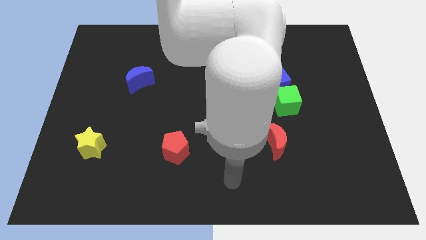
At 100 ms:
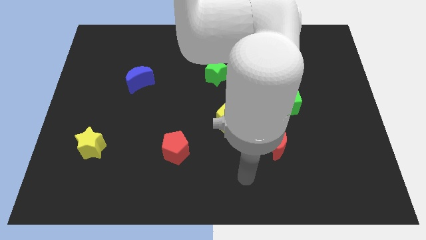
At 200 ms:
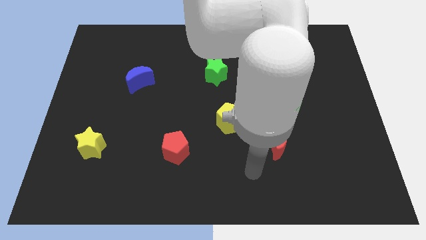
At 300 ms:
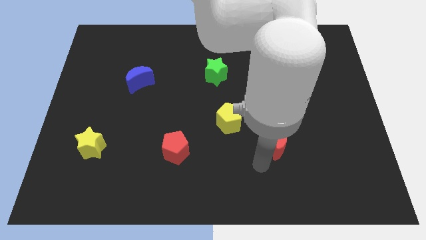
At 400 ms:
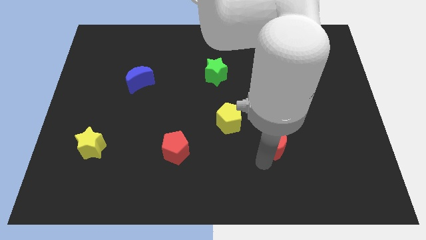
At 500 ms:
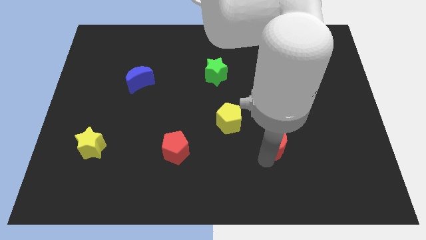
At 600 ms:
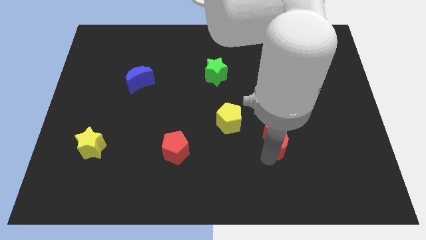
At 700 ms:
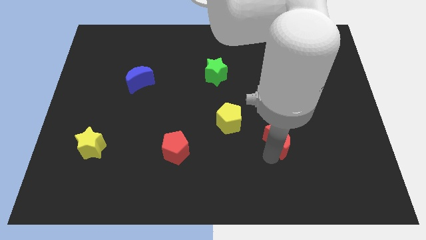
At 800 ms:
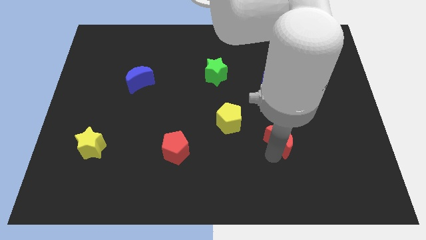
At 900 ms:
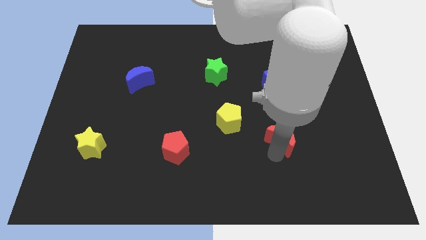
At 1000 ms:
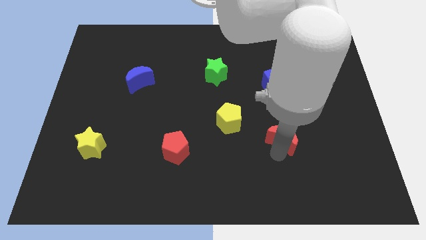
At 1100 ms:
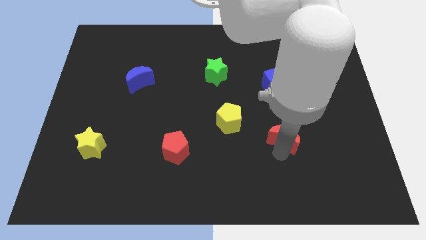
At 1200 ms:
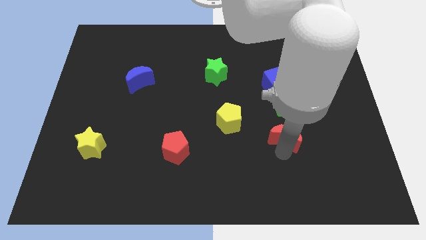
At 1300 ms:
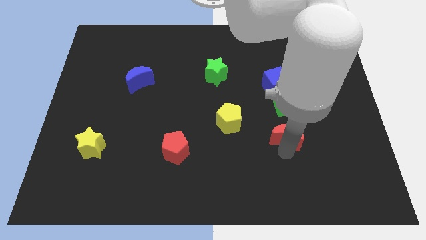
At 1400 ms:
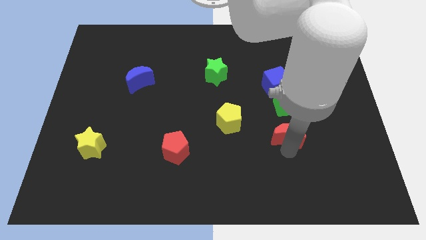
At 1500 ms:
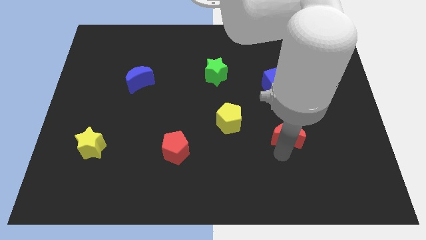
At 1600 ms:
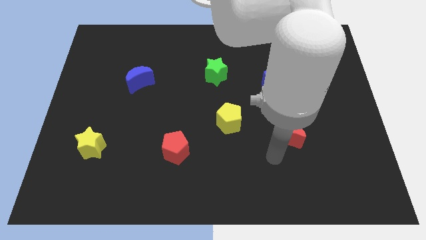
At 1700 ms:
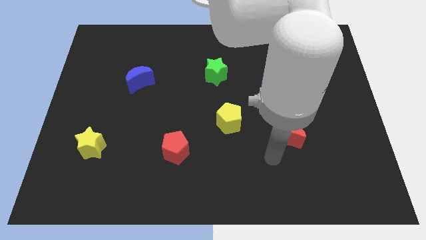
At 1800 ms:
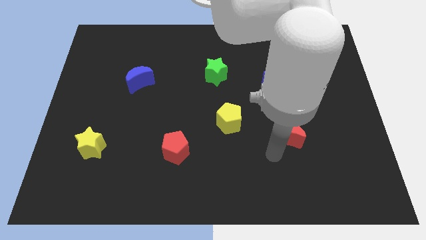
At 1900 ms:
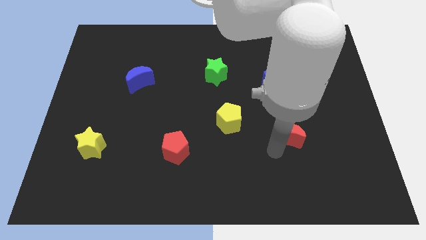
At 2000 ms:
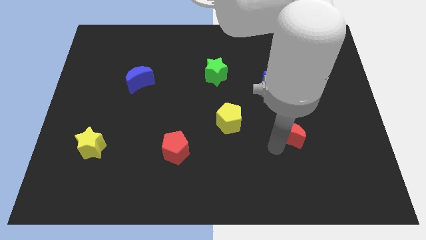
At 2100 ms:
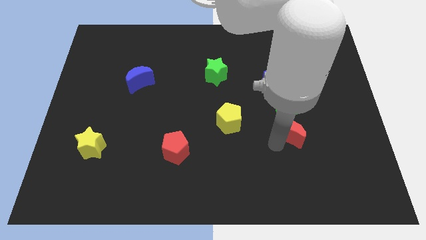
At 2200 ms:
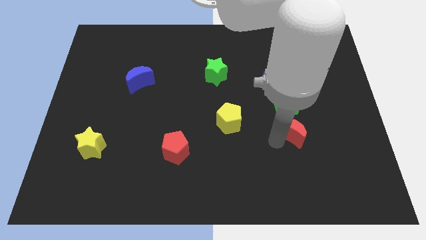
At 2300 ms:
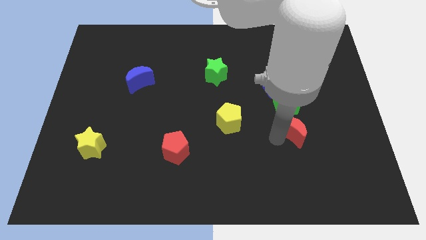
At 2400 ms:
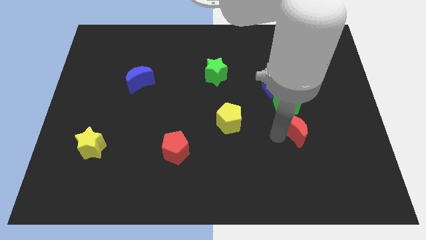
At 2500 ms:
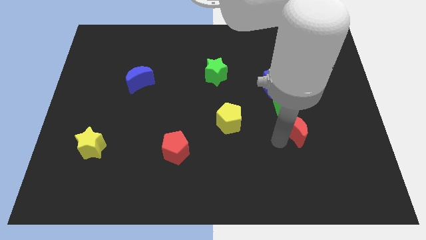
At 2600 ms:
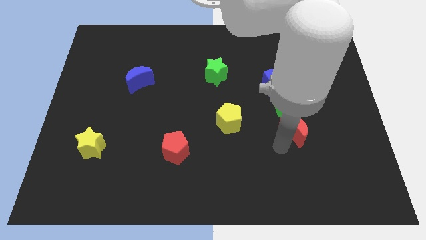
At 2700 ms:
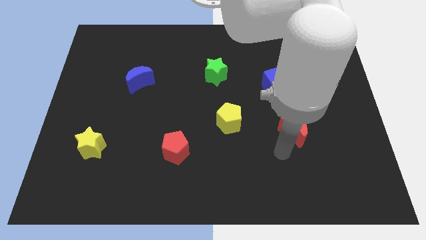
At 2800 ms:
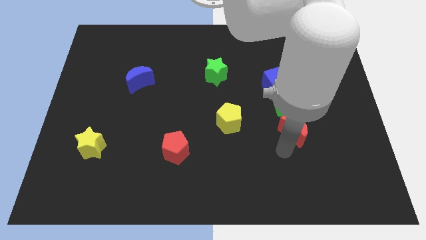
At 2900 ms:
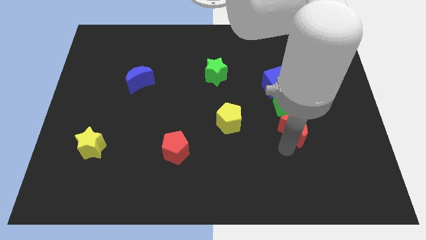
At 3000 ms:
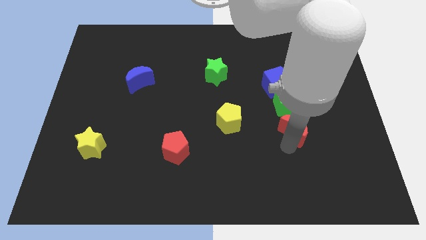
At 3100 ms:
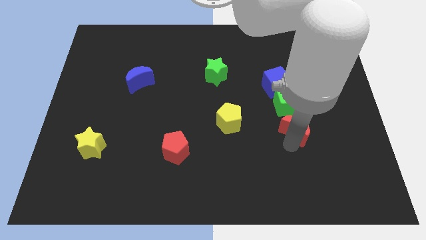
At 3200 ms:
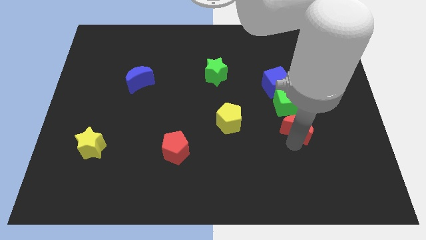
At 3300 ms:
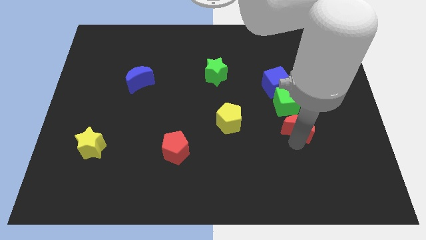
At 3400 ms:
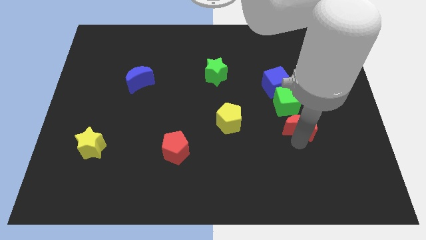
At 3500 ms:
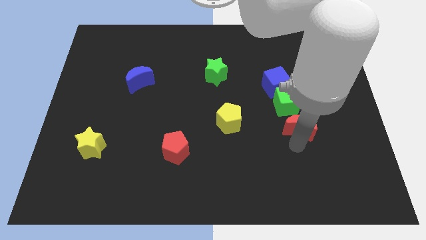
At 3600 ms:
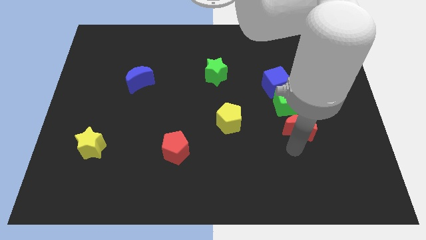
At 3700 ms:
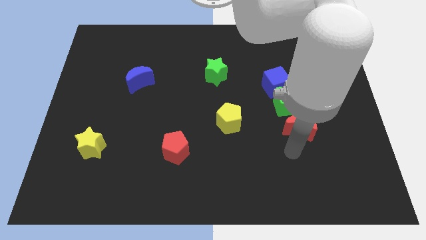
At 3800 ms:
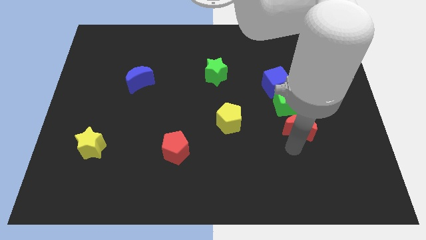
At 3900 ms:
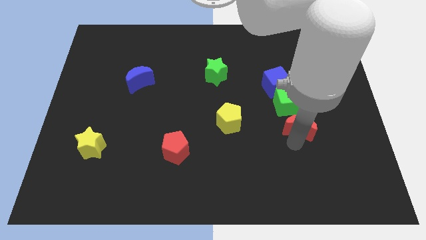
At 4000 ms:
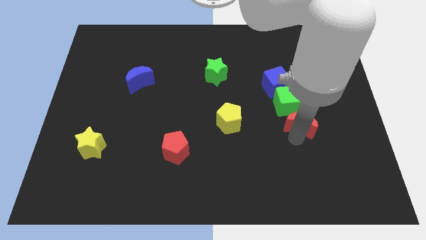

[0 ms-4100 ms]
move the red moon up and to the right diagonally a bit

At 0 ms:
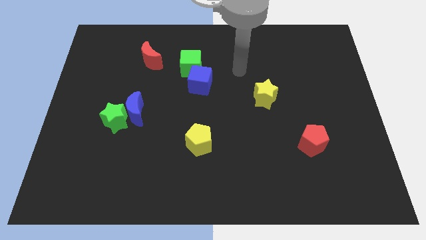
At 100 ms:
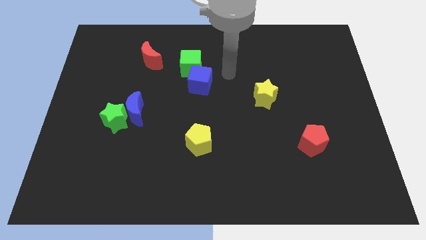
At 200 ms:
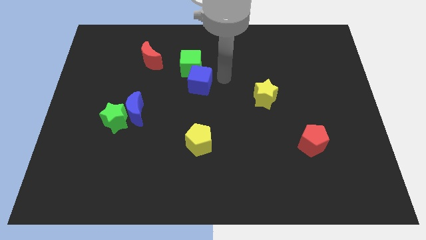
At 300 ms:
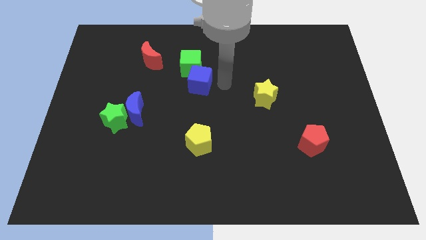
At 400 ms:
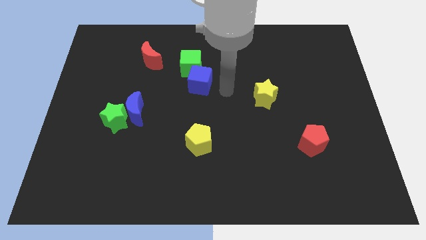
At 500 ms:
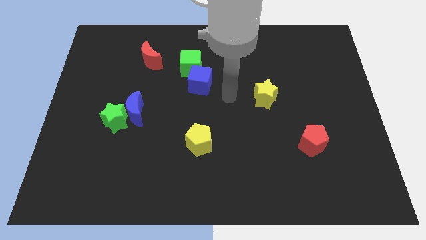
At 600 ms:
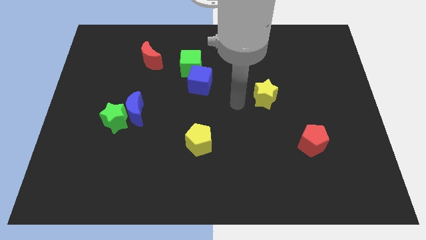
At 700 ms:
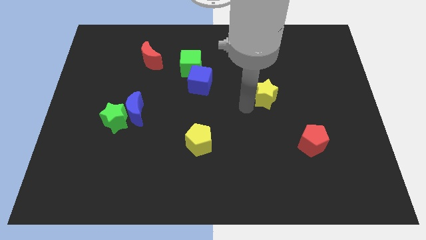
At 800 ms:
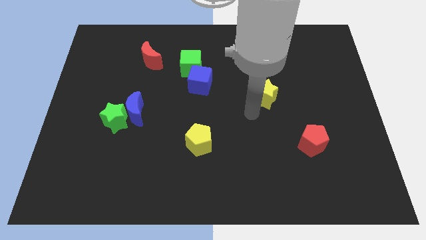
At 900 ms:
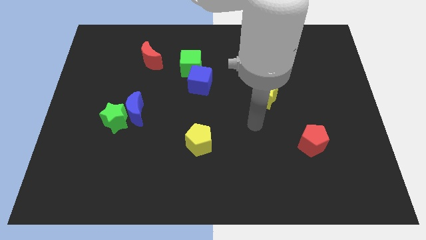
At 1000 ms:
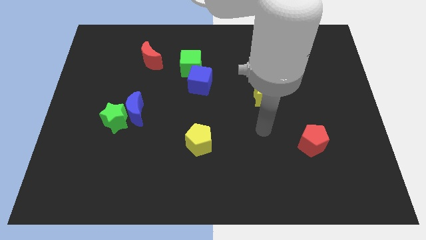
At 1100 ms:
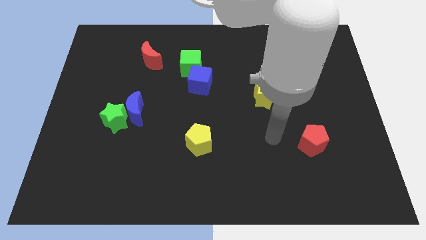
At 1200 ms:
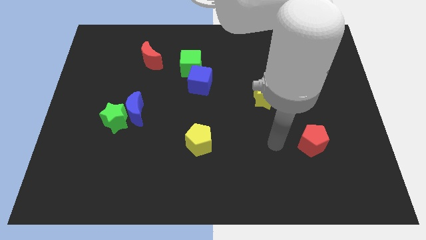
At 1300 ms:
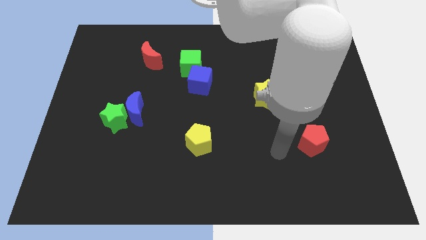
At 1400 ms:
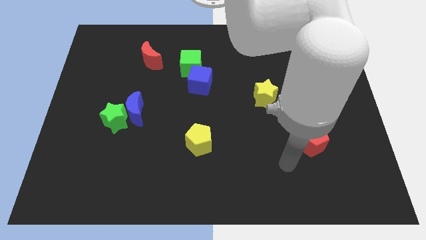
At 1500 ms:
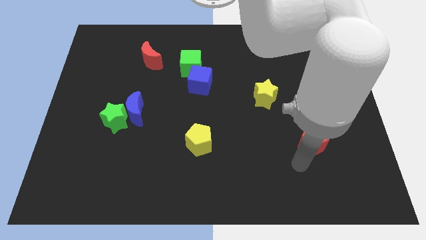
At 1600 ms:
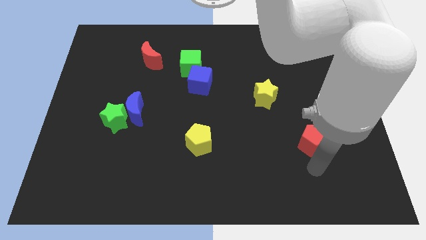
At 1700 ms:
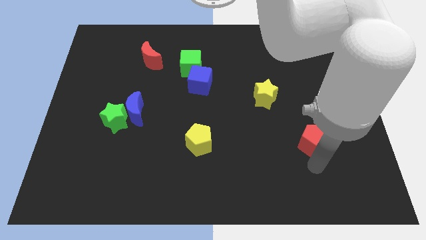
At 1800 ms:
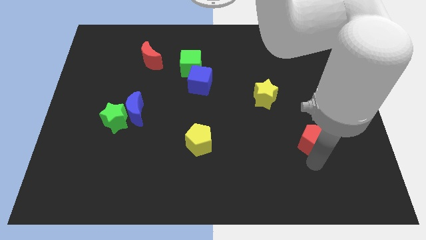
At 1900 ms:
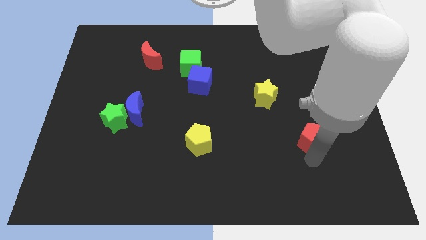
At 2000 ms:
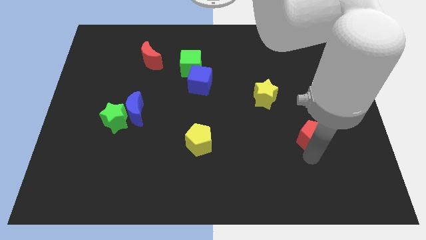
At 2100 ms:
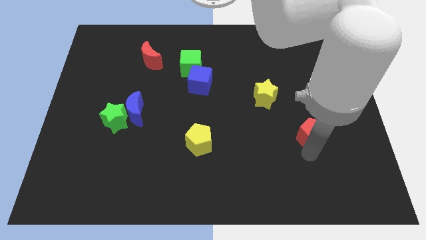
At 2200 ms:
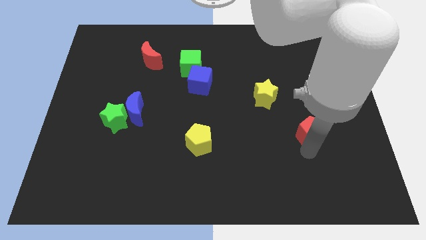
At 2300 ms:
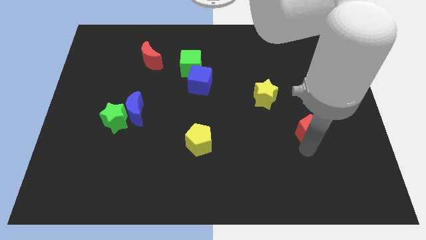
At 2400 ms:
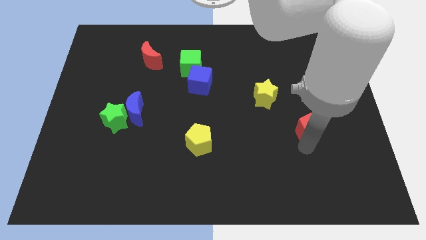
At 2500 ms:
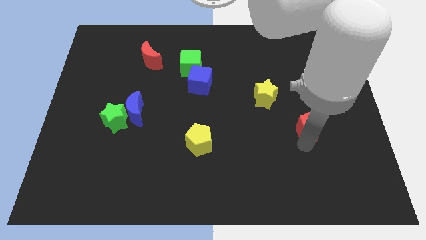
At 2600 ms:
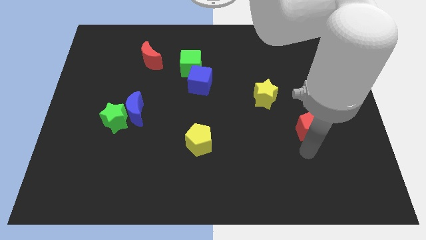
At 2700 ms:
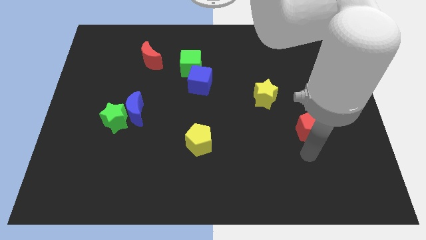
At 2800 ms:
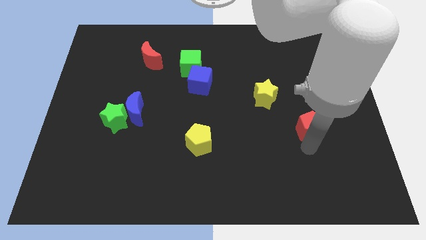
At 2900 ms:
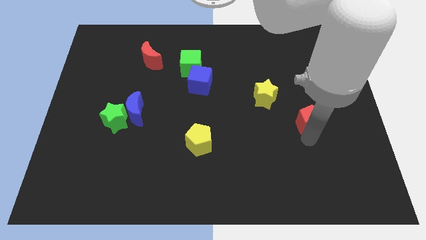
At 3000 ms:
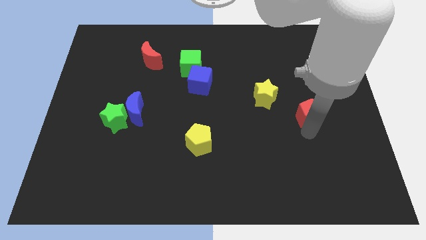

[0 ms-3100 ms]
slightly slide the red pentagon upwards

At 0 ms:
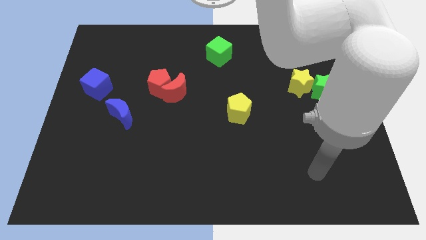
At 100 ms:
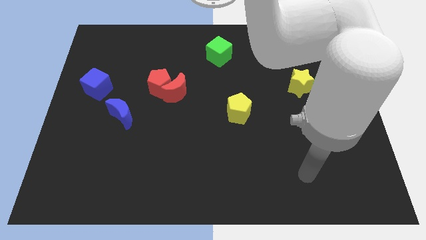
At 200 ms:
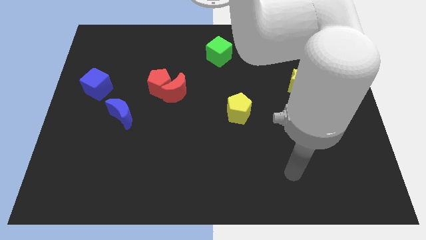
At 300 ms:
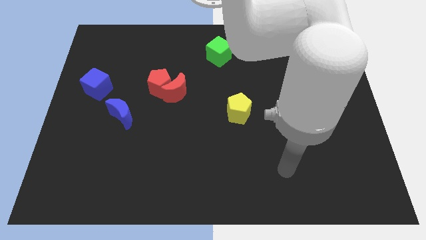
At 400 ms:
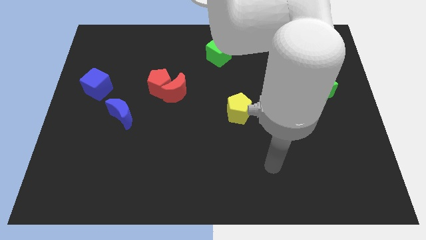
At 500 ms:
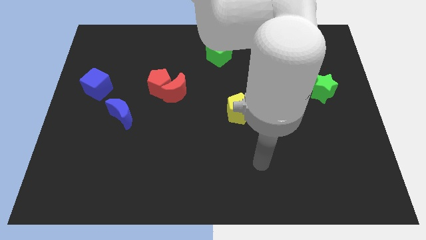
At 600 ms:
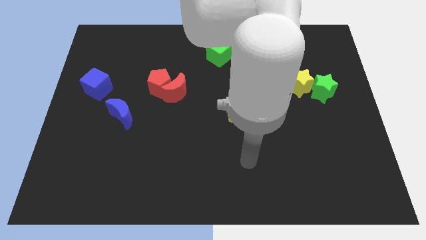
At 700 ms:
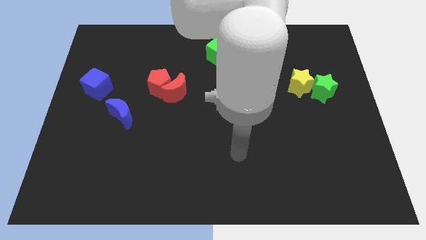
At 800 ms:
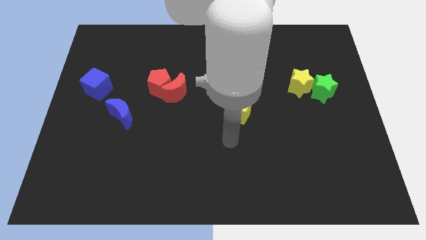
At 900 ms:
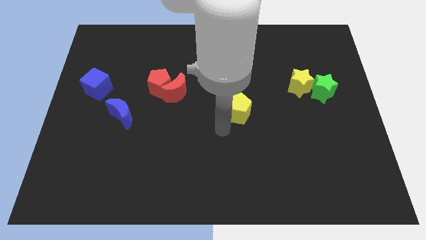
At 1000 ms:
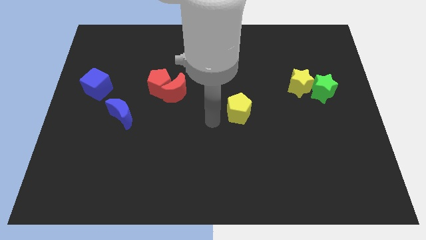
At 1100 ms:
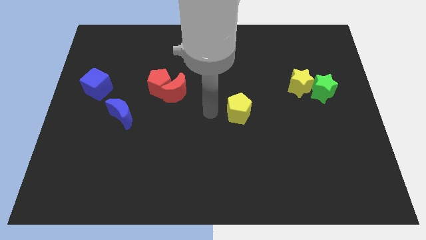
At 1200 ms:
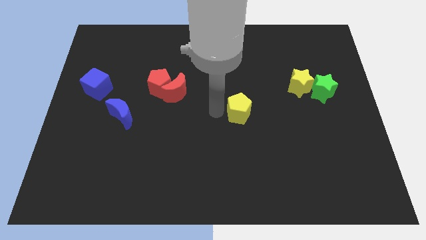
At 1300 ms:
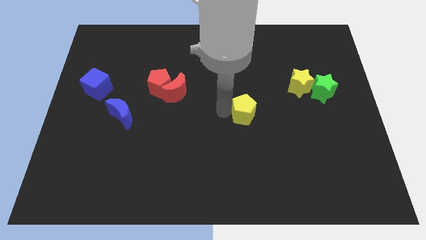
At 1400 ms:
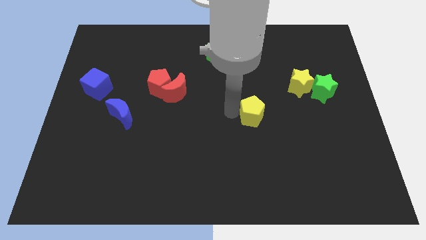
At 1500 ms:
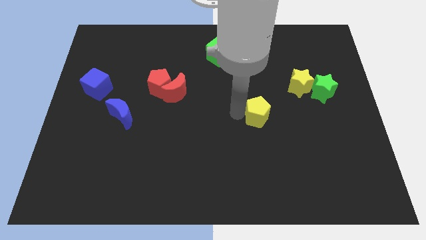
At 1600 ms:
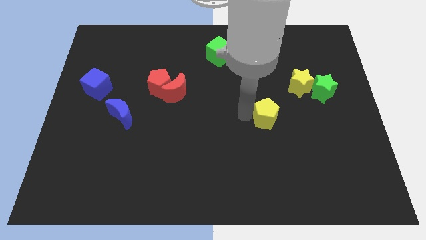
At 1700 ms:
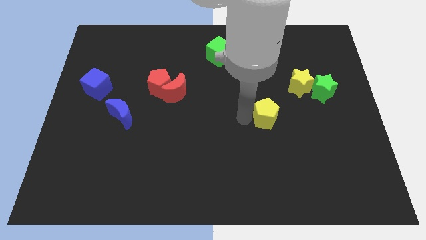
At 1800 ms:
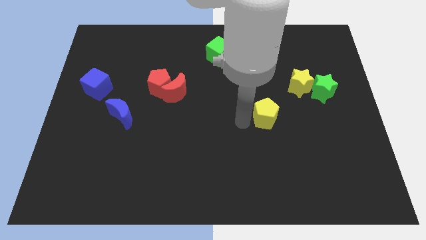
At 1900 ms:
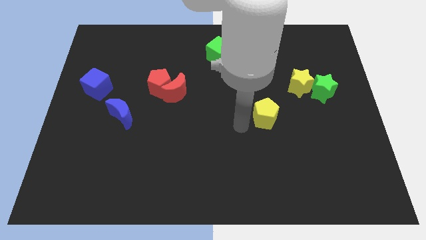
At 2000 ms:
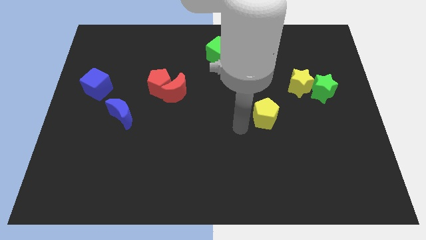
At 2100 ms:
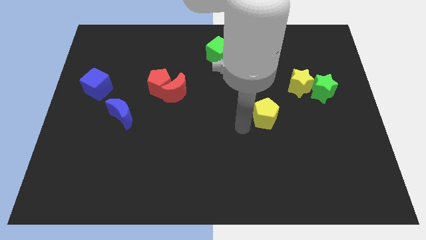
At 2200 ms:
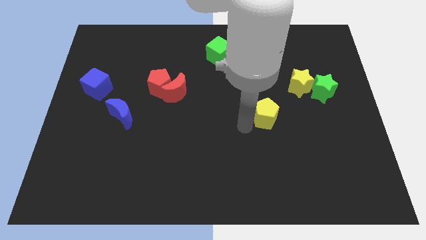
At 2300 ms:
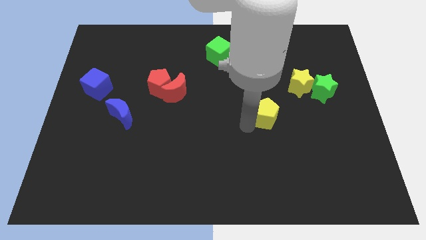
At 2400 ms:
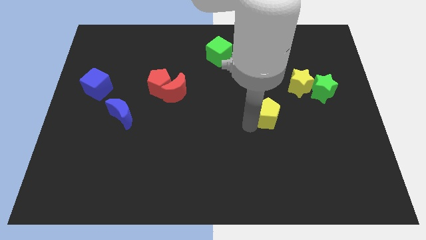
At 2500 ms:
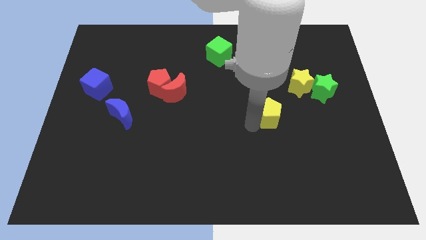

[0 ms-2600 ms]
slide the yellow pentagon to the right a bit
